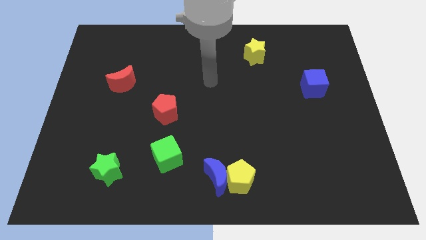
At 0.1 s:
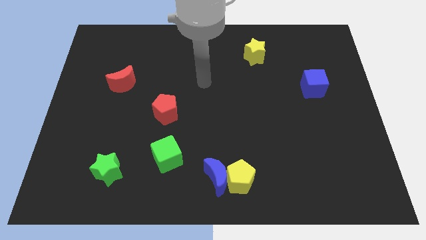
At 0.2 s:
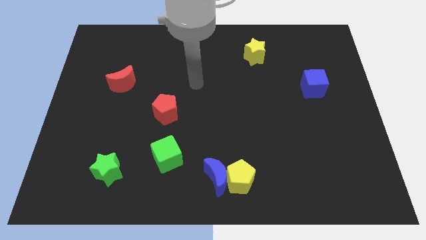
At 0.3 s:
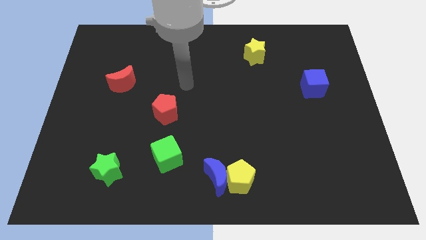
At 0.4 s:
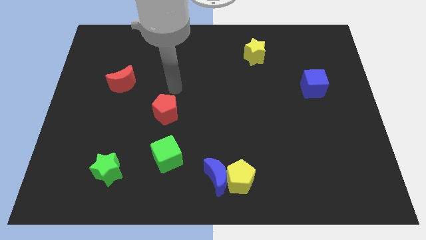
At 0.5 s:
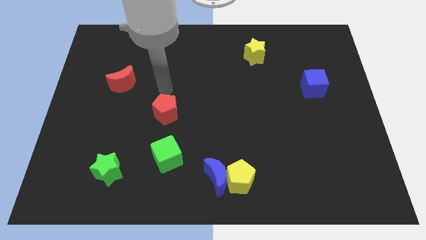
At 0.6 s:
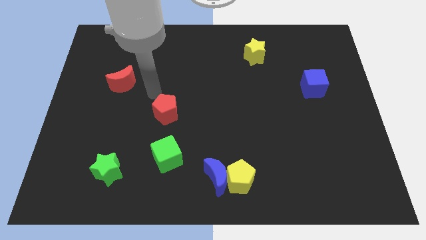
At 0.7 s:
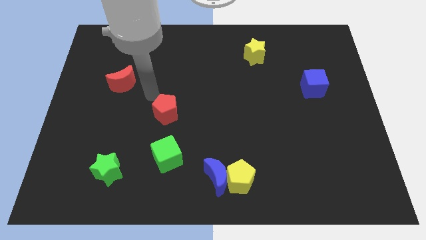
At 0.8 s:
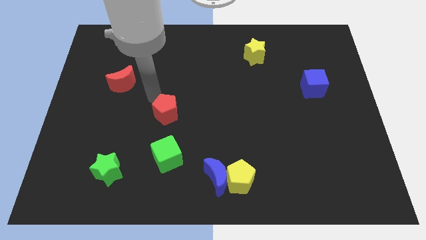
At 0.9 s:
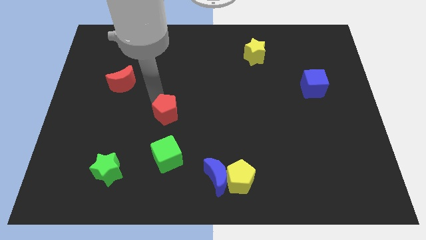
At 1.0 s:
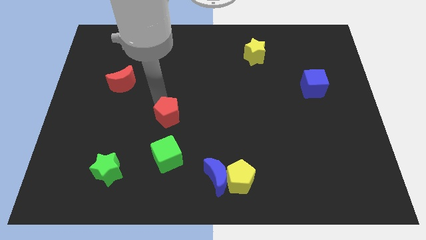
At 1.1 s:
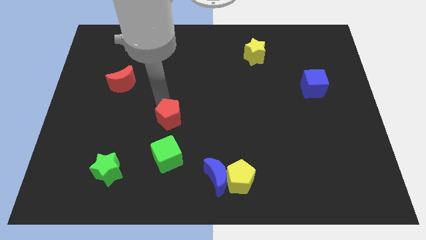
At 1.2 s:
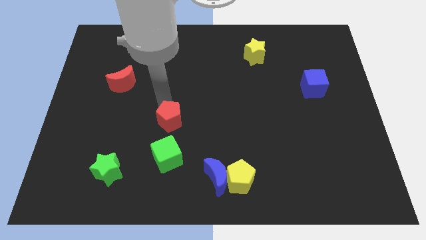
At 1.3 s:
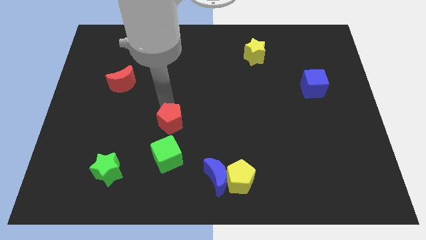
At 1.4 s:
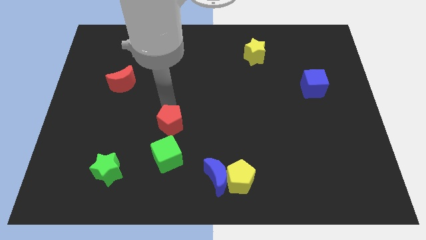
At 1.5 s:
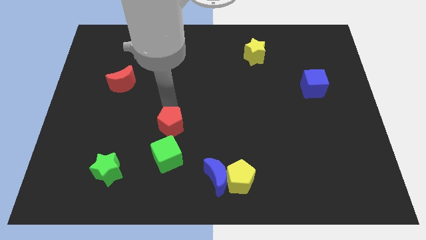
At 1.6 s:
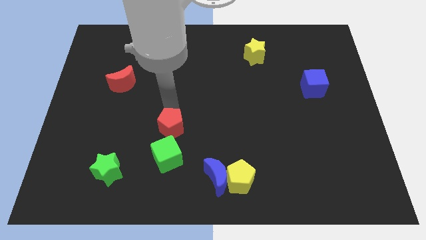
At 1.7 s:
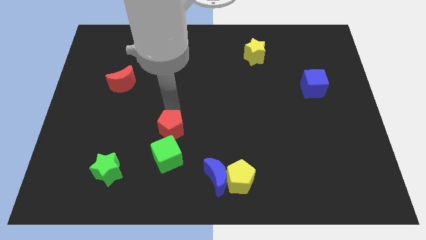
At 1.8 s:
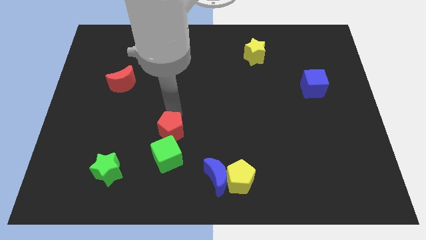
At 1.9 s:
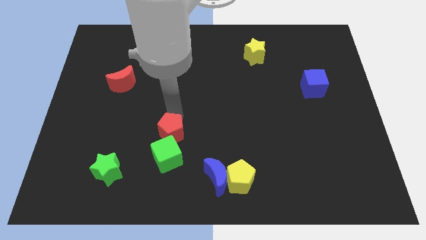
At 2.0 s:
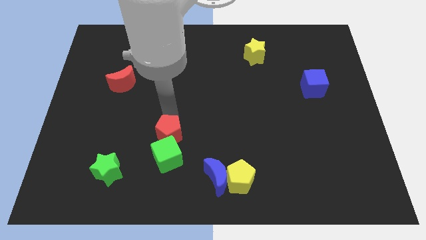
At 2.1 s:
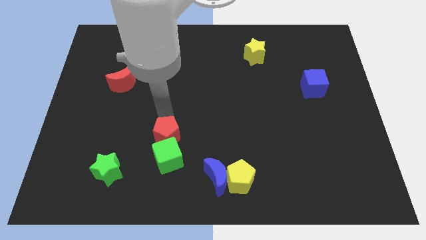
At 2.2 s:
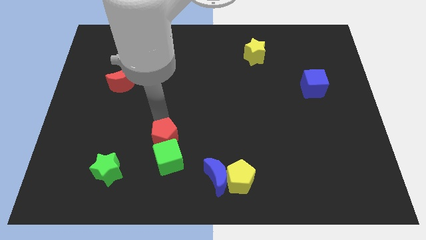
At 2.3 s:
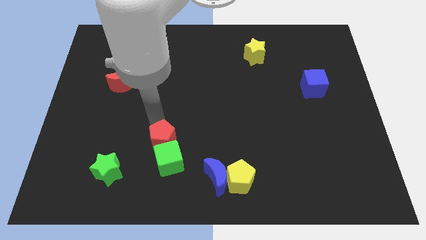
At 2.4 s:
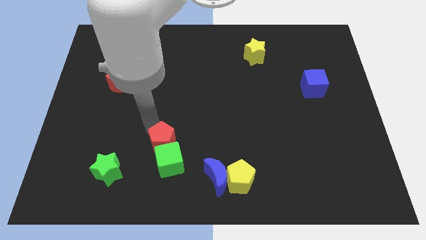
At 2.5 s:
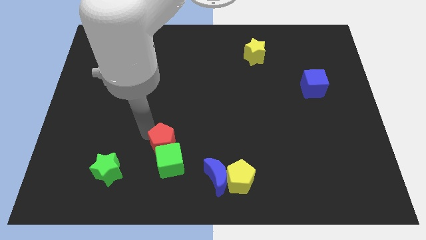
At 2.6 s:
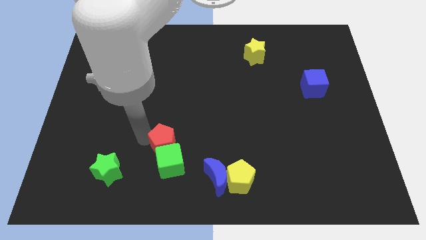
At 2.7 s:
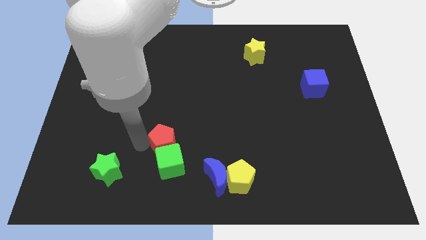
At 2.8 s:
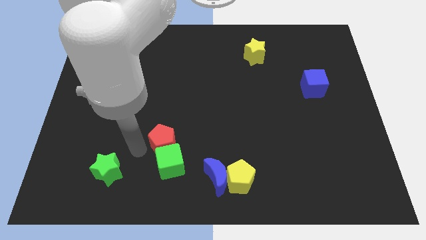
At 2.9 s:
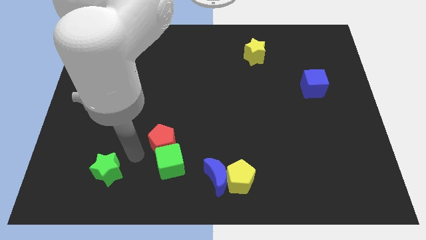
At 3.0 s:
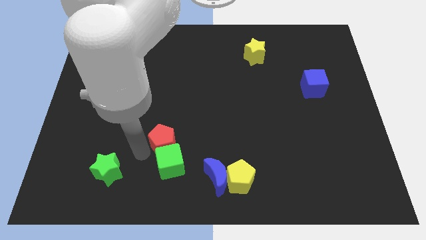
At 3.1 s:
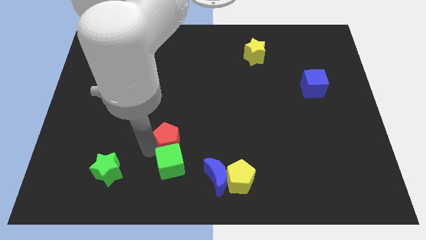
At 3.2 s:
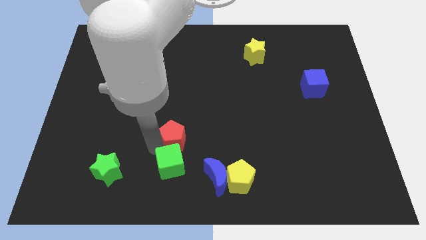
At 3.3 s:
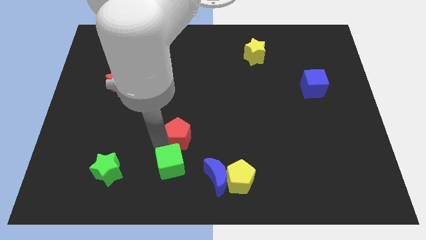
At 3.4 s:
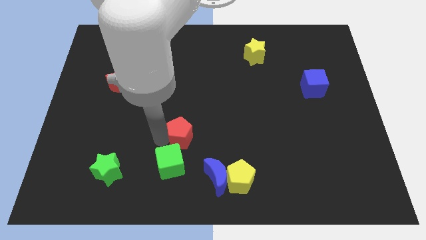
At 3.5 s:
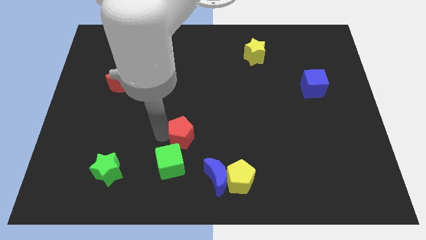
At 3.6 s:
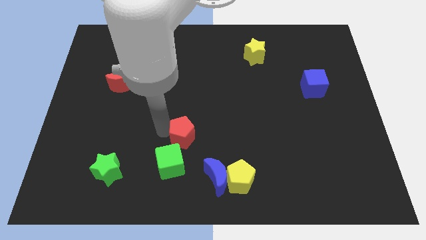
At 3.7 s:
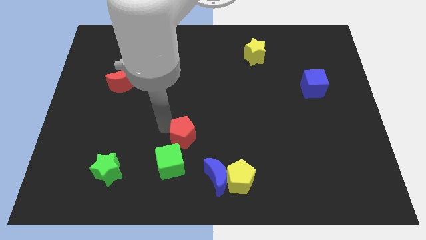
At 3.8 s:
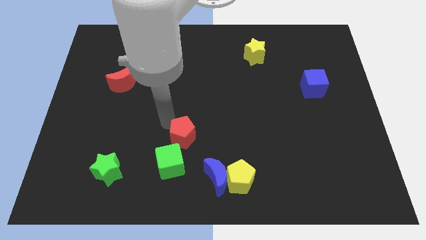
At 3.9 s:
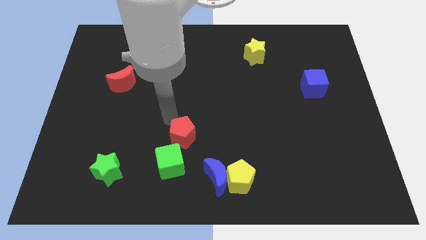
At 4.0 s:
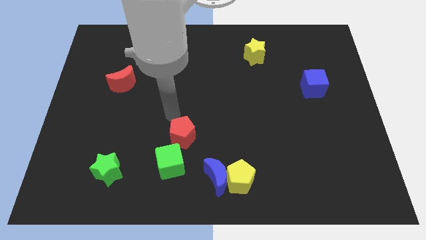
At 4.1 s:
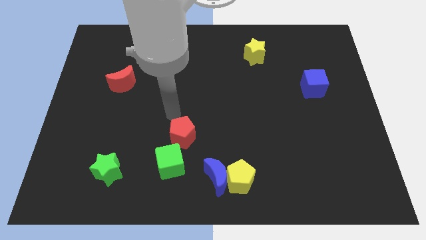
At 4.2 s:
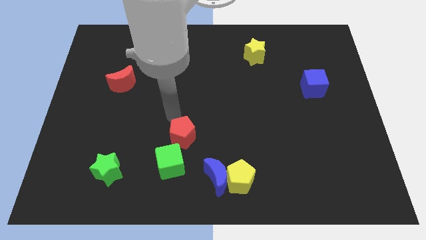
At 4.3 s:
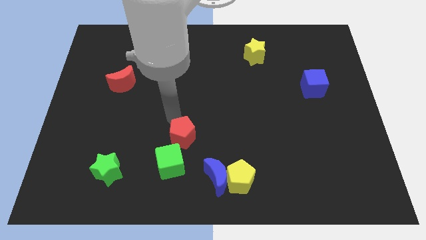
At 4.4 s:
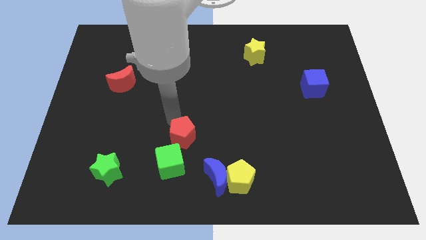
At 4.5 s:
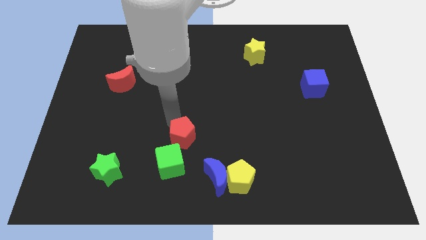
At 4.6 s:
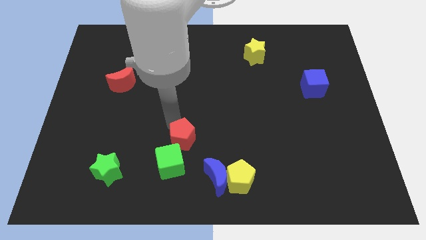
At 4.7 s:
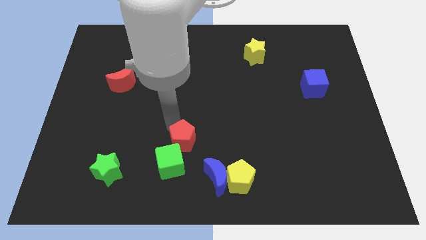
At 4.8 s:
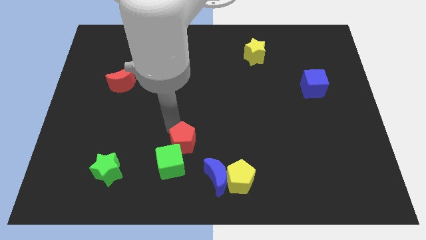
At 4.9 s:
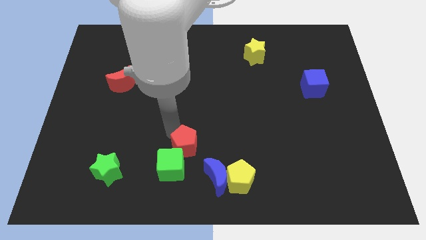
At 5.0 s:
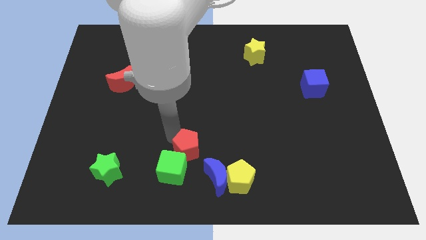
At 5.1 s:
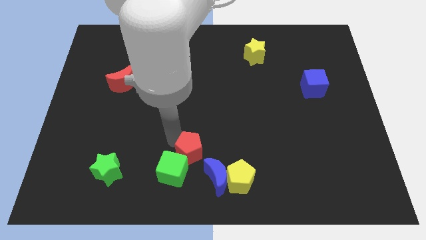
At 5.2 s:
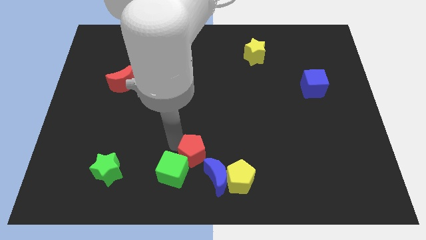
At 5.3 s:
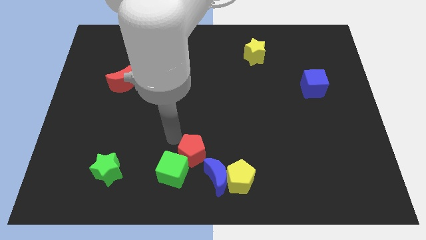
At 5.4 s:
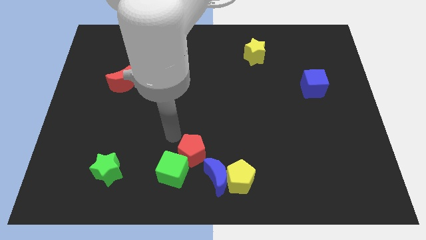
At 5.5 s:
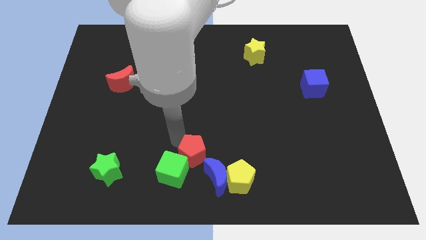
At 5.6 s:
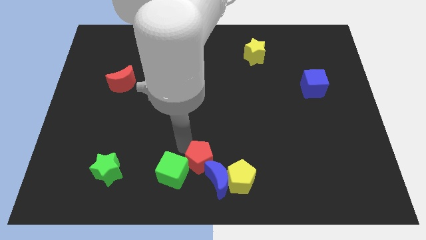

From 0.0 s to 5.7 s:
push the red pentagon to the blue moon

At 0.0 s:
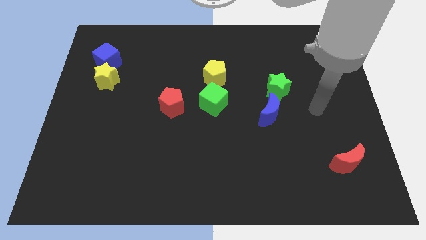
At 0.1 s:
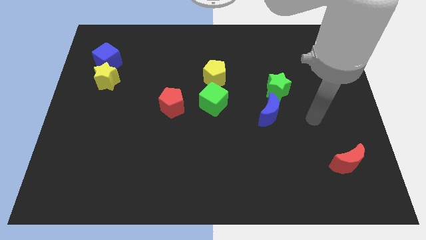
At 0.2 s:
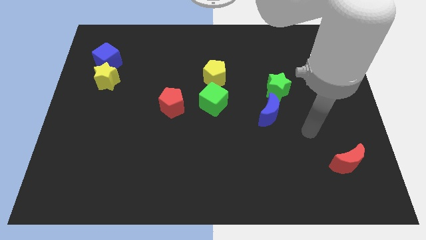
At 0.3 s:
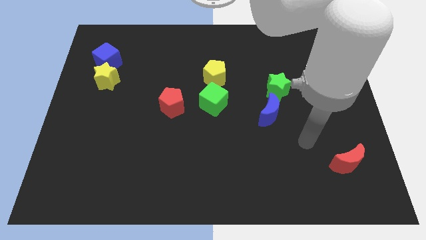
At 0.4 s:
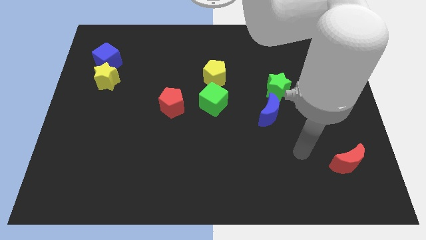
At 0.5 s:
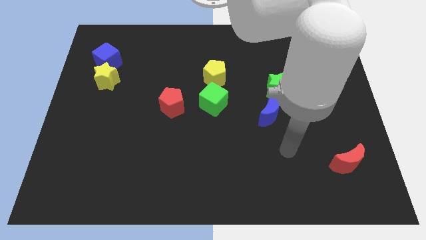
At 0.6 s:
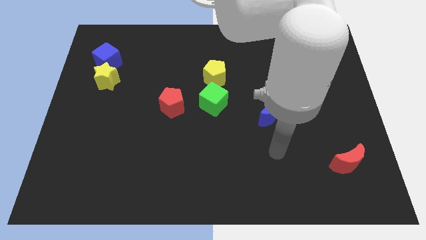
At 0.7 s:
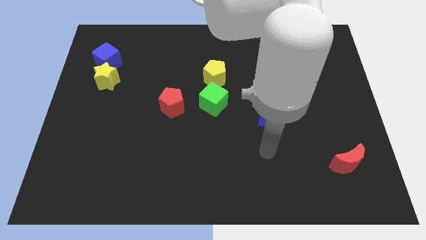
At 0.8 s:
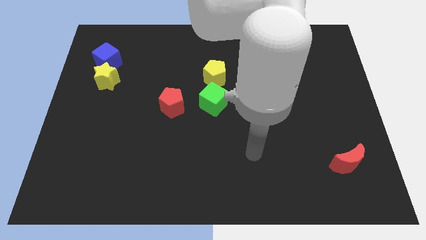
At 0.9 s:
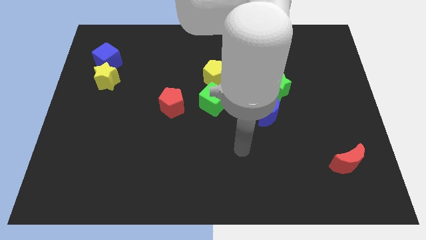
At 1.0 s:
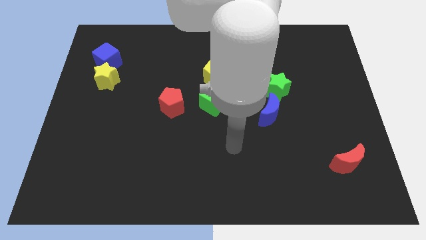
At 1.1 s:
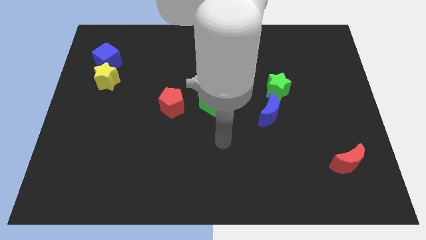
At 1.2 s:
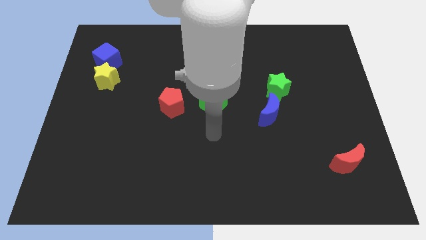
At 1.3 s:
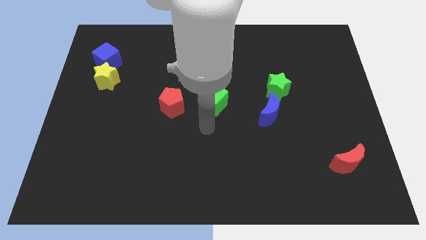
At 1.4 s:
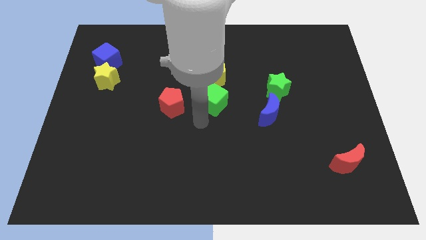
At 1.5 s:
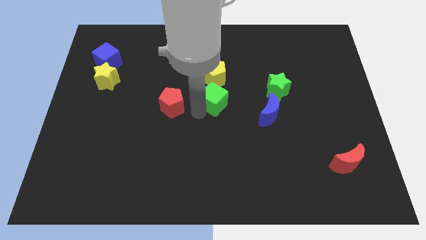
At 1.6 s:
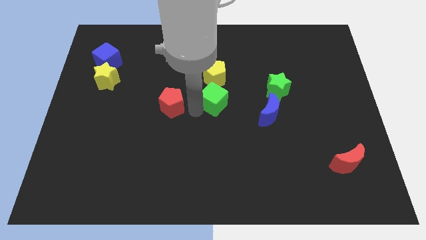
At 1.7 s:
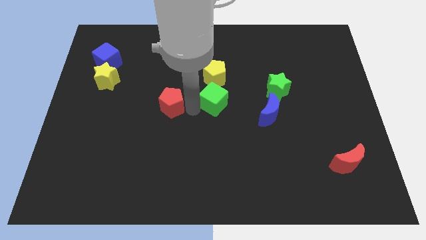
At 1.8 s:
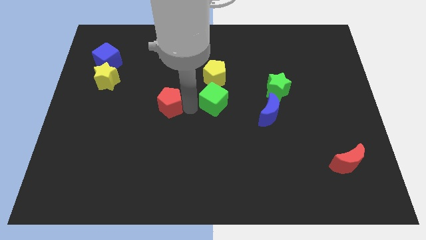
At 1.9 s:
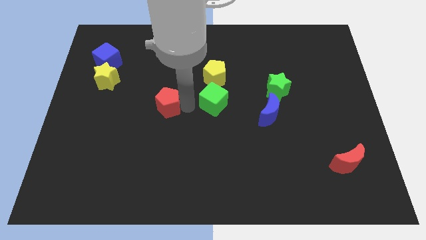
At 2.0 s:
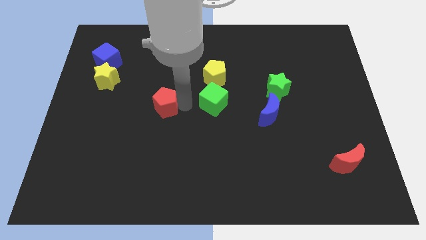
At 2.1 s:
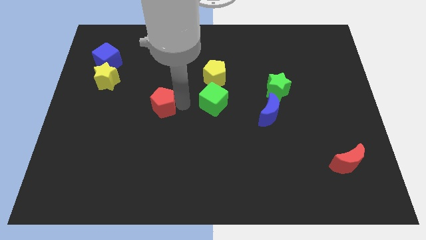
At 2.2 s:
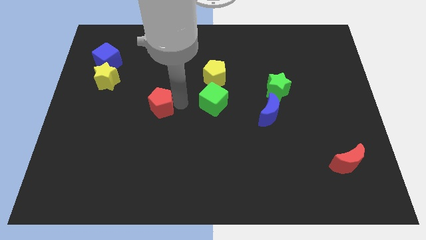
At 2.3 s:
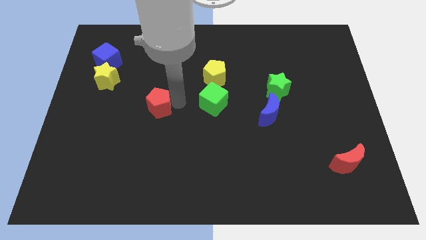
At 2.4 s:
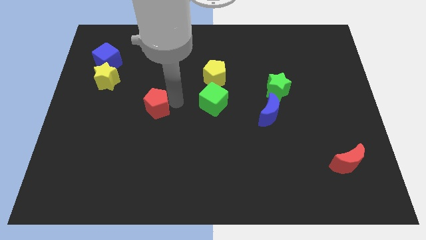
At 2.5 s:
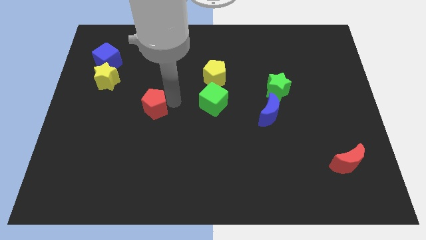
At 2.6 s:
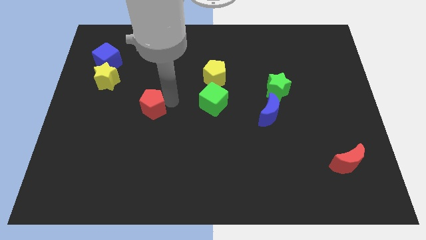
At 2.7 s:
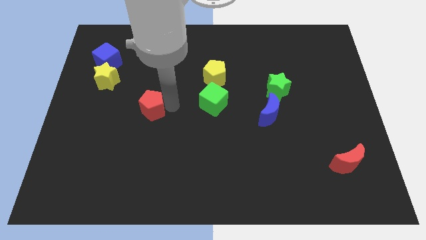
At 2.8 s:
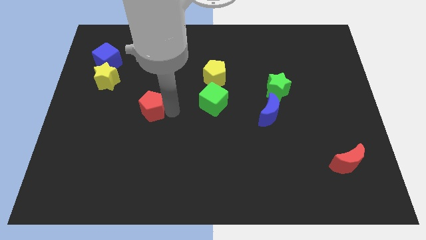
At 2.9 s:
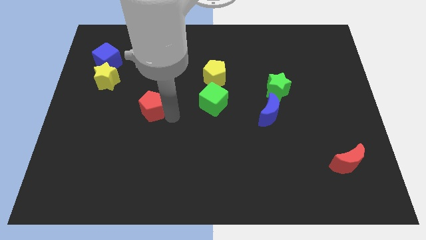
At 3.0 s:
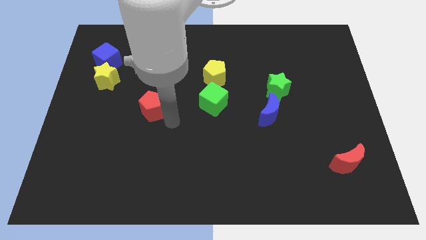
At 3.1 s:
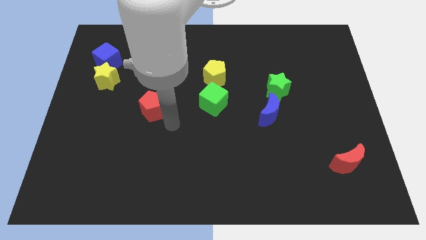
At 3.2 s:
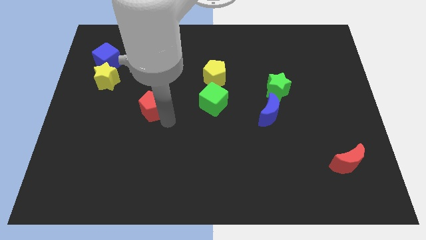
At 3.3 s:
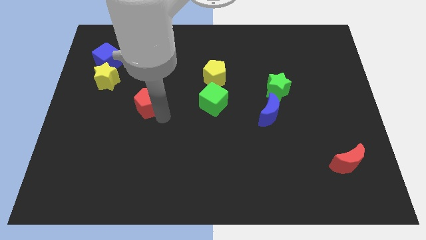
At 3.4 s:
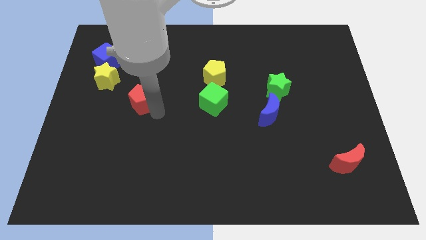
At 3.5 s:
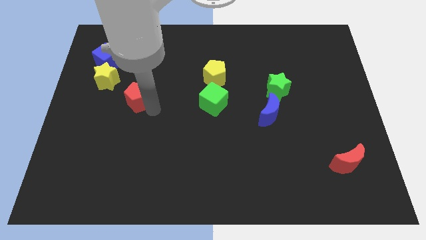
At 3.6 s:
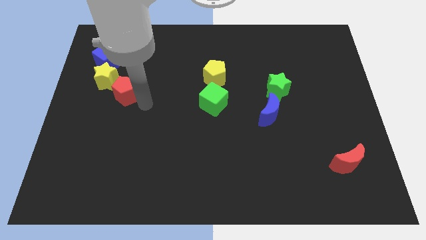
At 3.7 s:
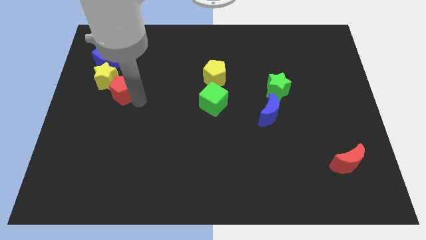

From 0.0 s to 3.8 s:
put the red pentagon close to the yellow star
